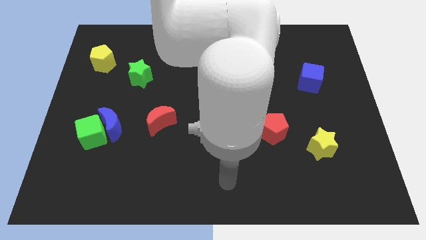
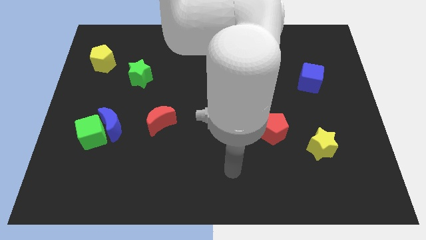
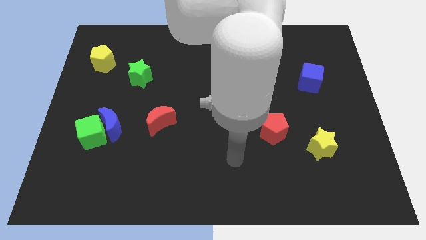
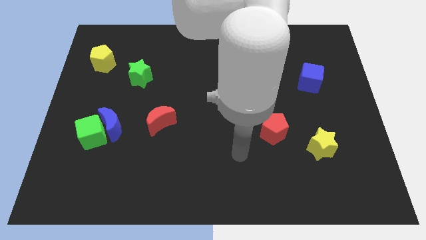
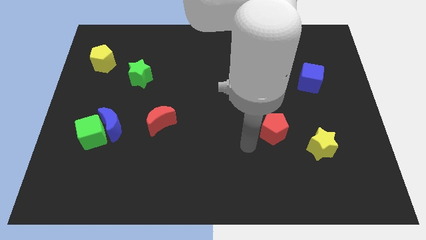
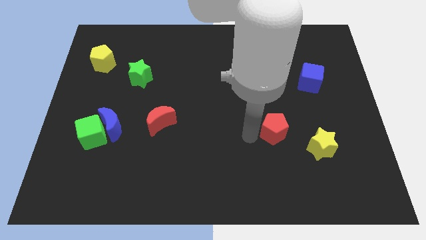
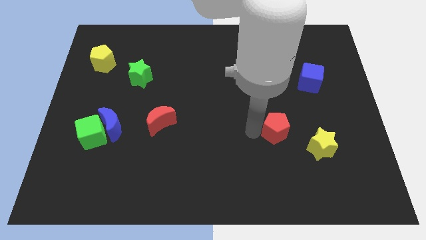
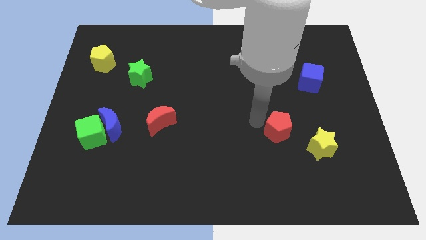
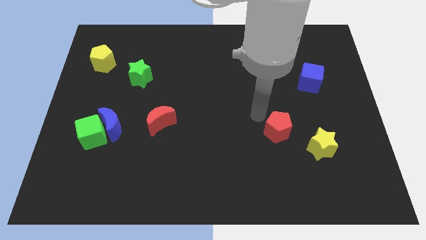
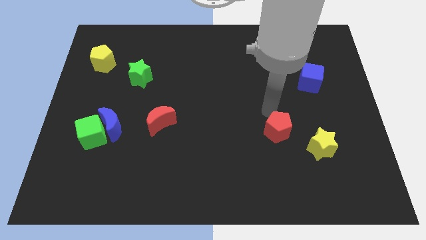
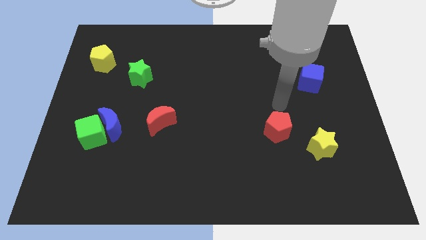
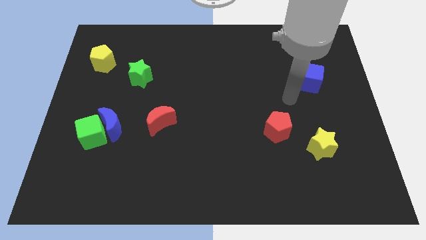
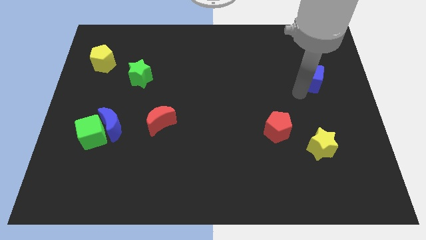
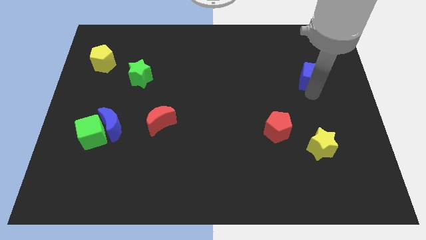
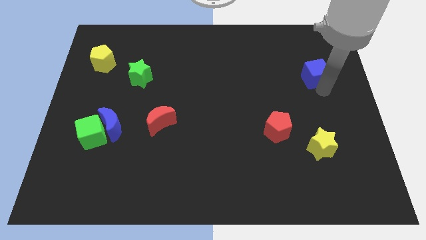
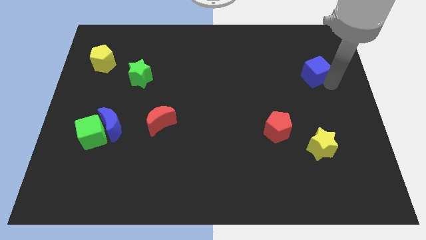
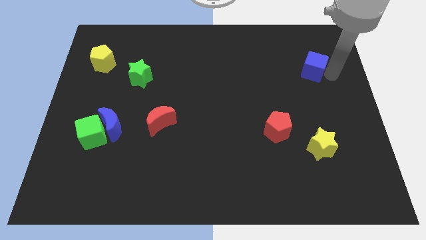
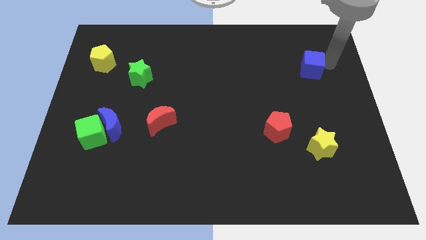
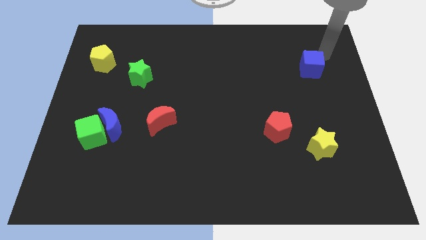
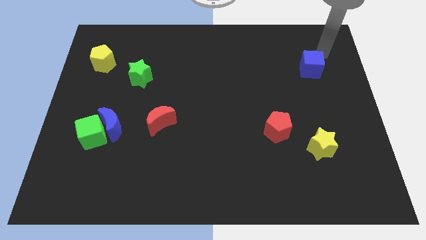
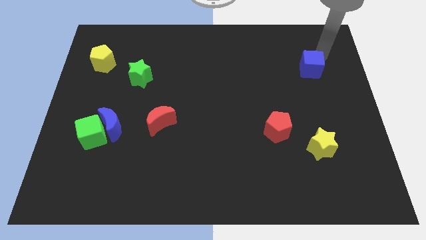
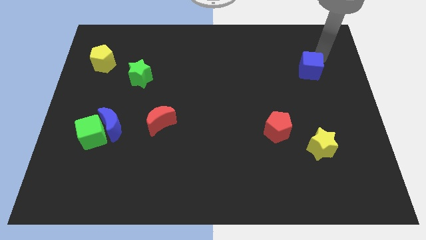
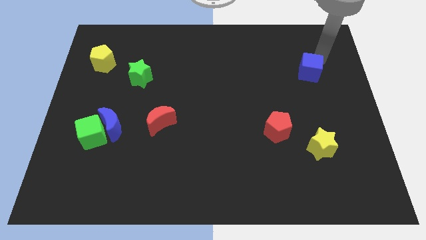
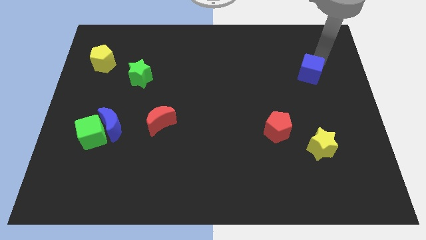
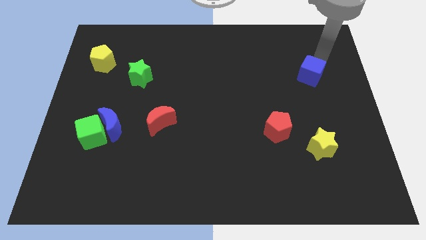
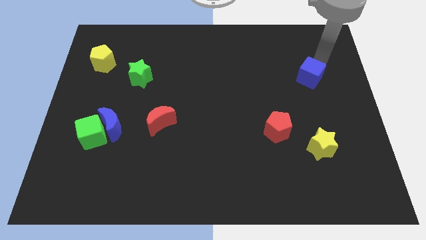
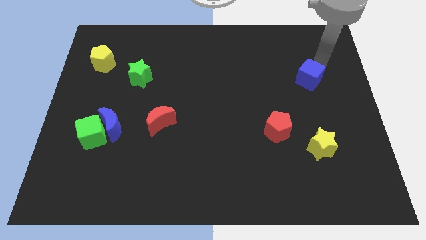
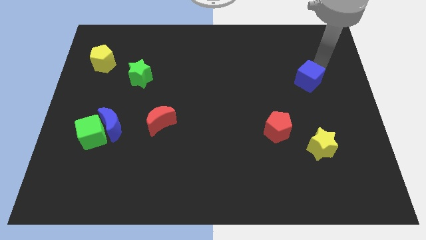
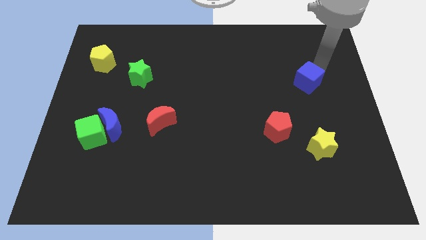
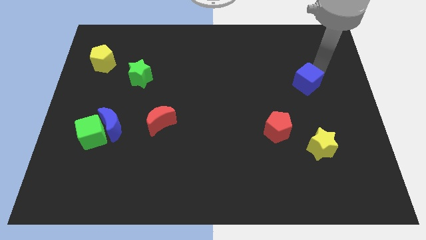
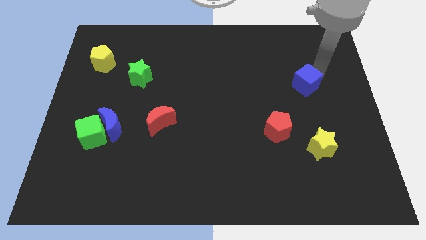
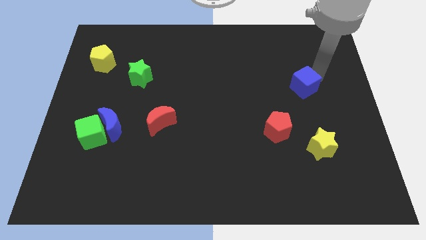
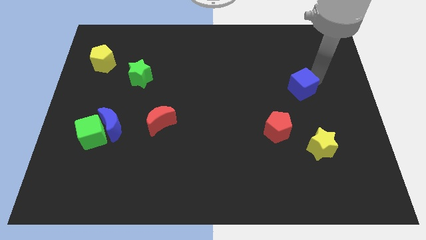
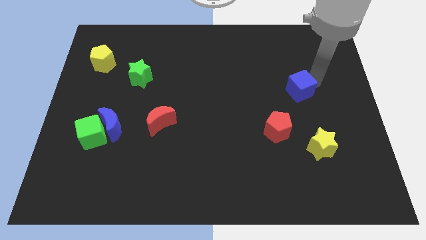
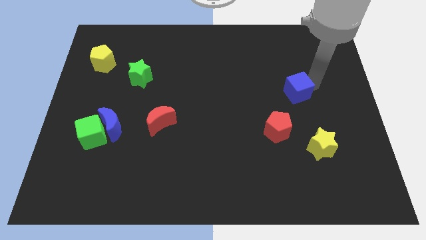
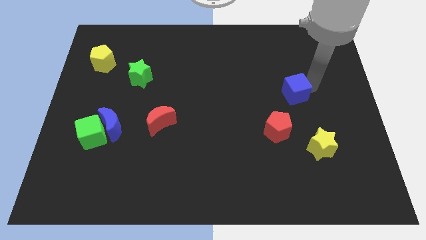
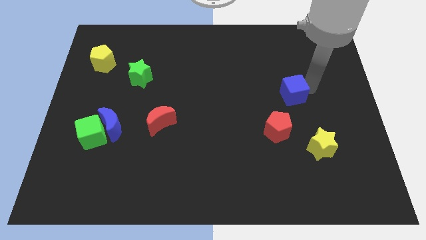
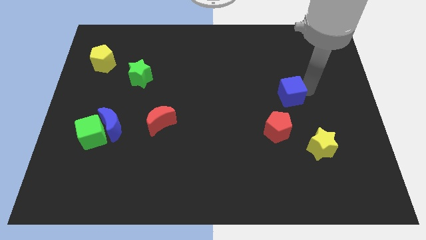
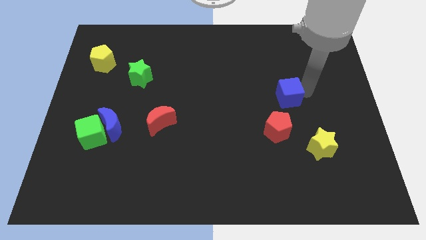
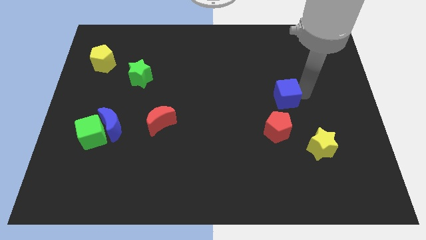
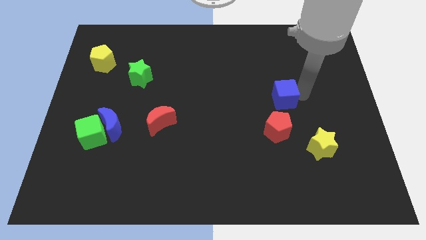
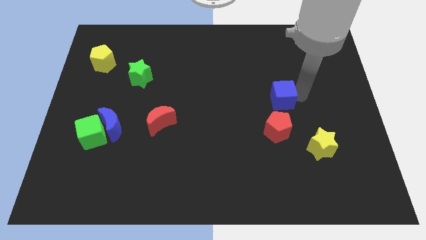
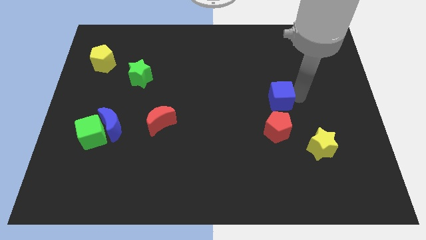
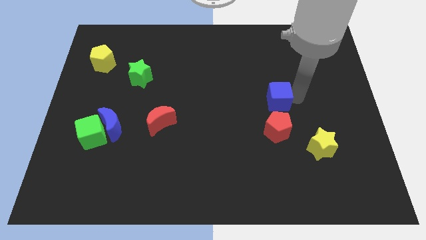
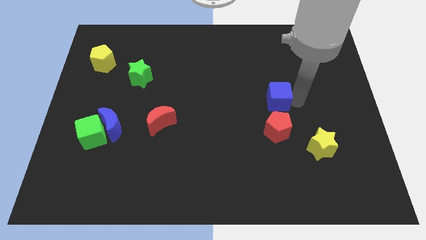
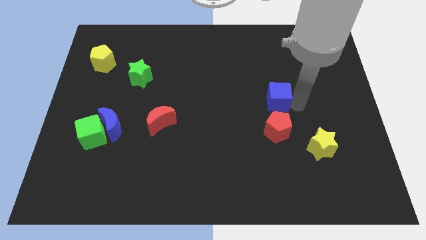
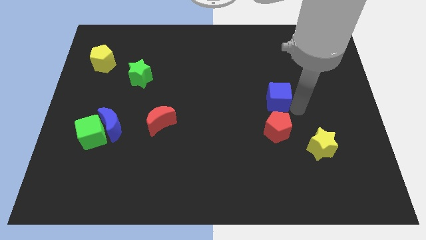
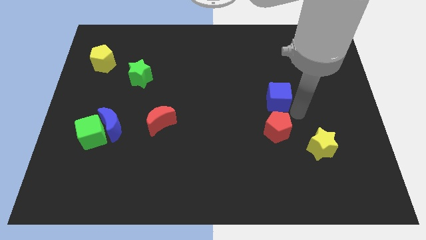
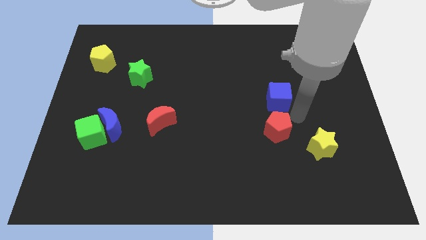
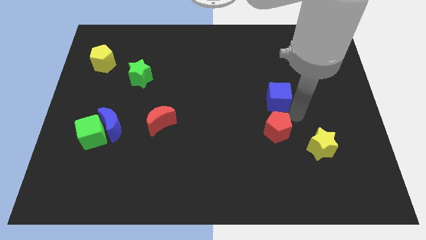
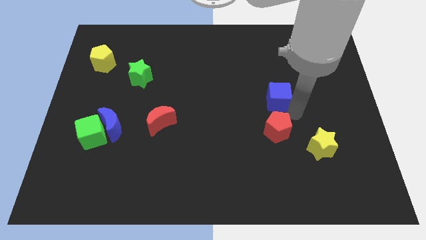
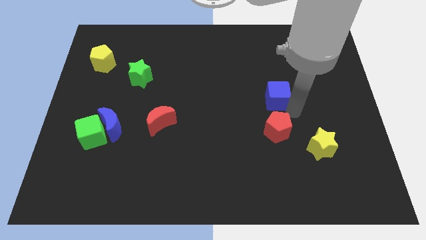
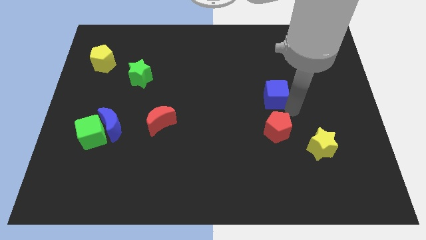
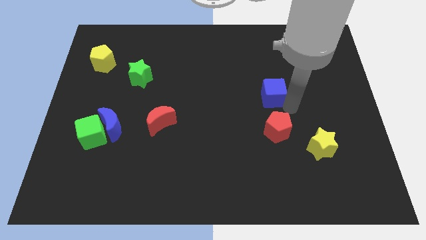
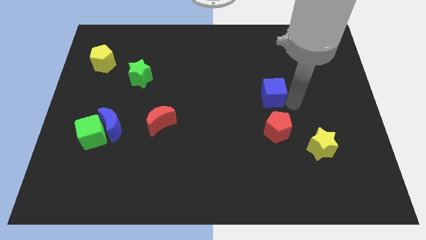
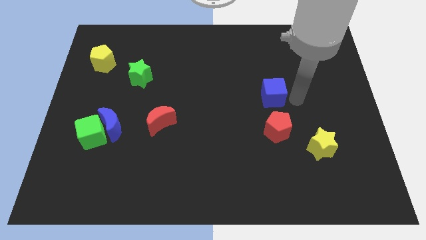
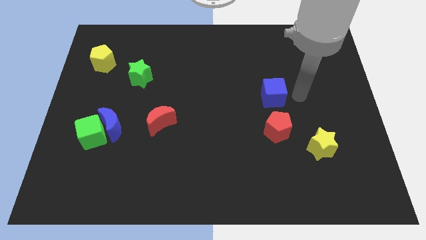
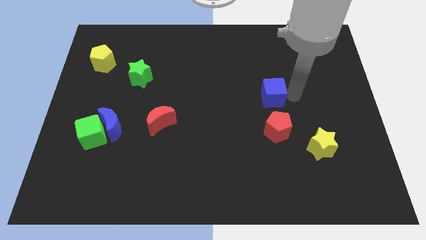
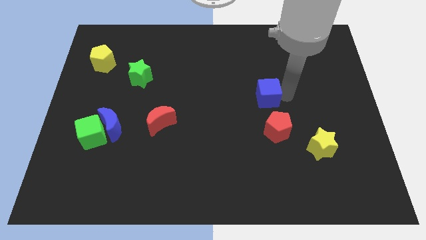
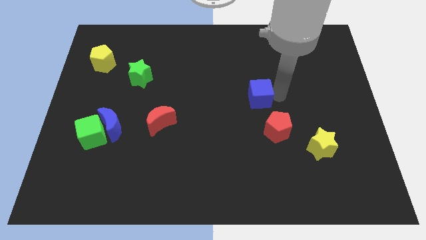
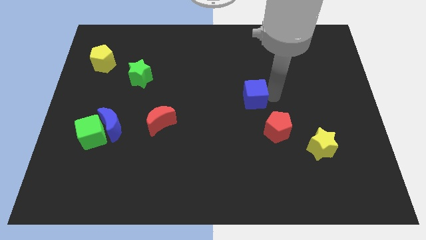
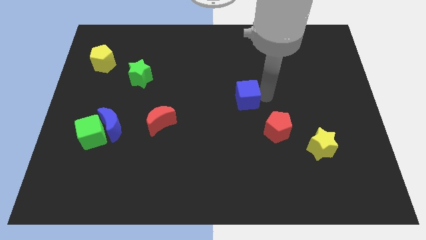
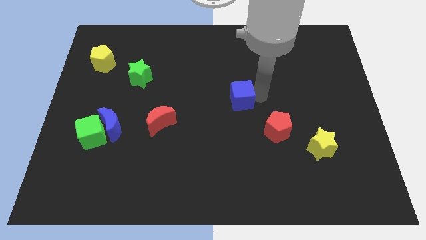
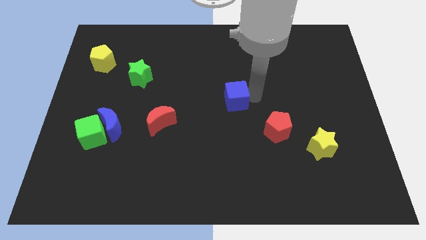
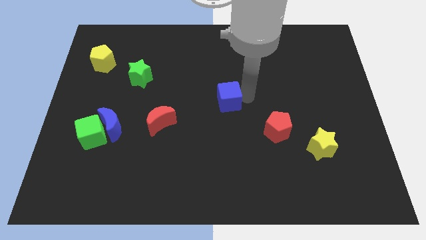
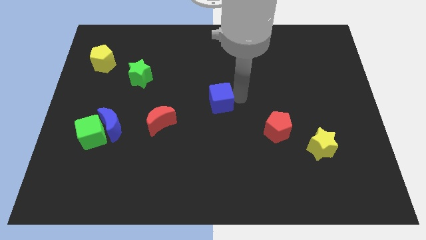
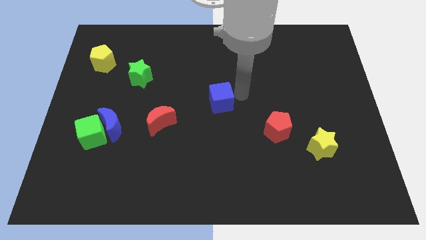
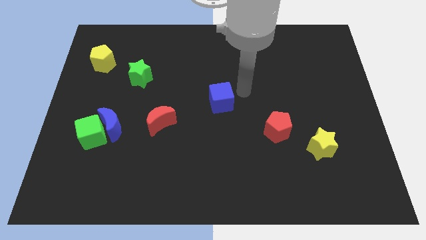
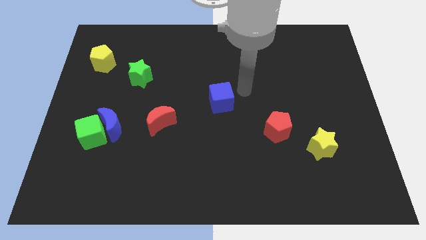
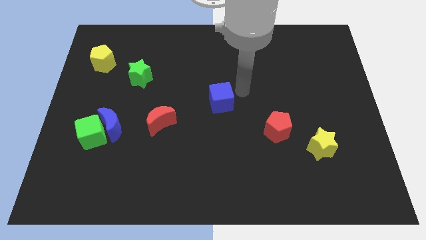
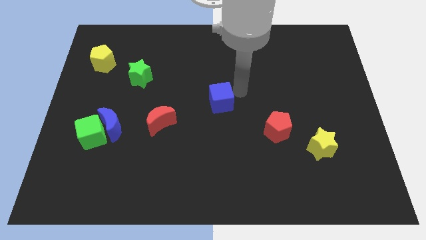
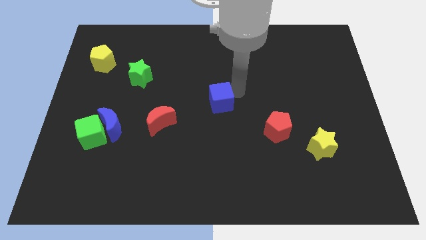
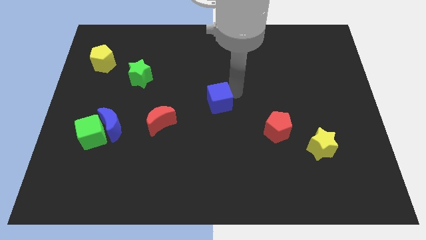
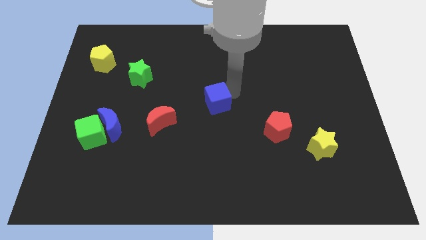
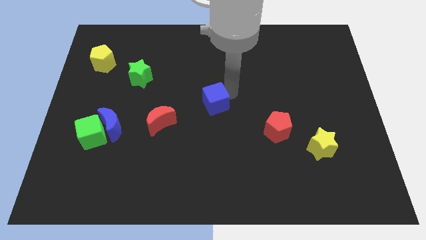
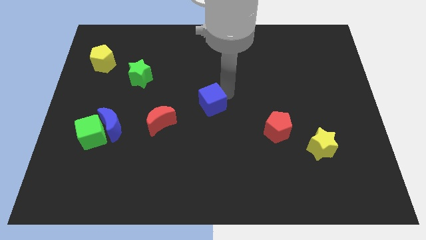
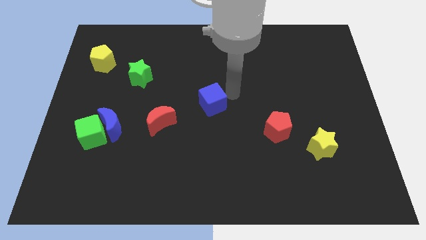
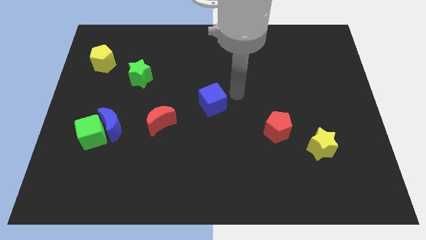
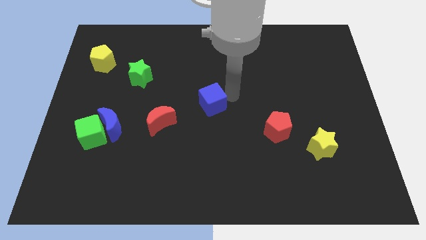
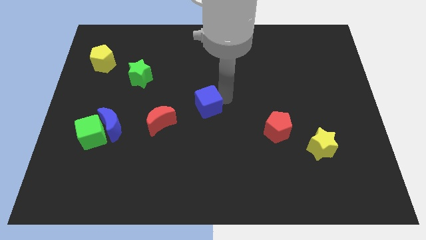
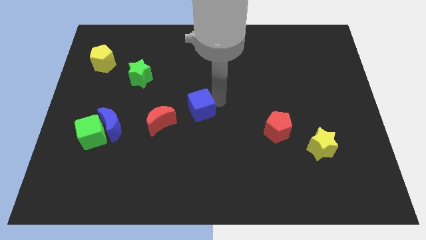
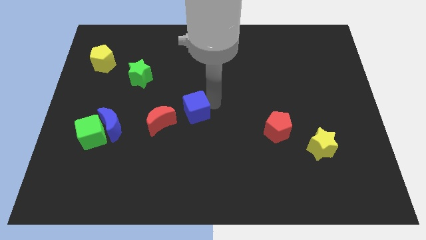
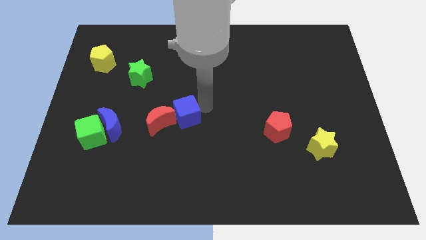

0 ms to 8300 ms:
move the blue cube next to the red moon
